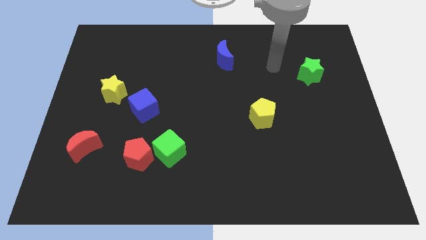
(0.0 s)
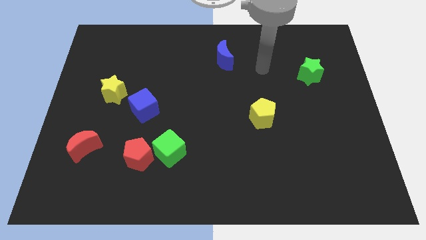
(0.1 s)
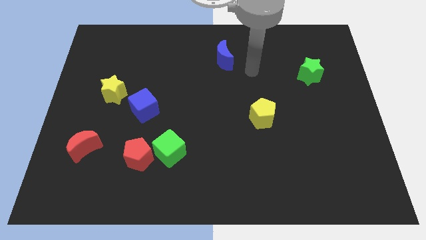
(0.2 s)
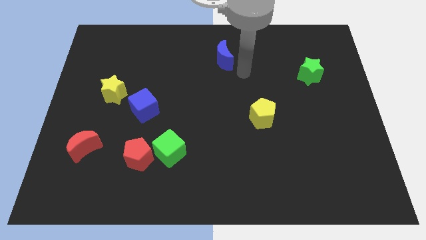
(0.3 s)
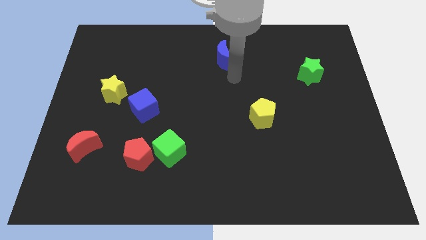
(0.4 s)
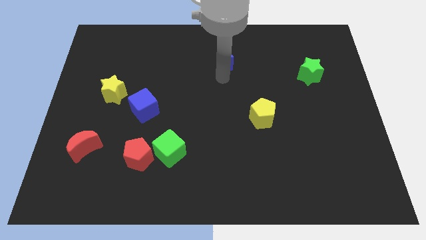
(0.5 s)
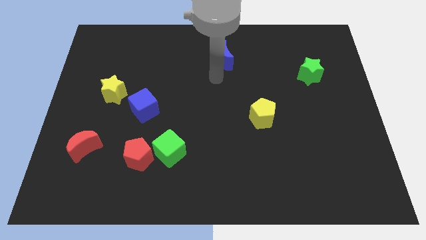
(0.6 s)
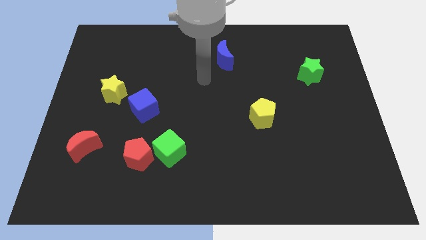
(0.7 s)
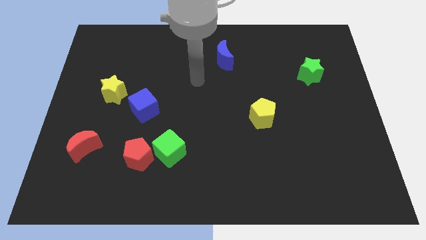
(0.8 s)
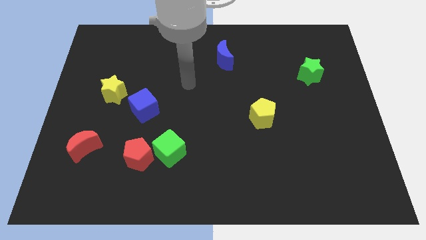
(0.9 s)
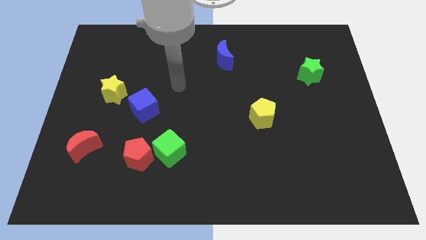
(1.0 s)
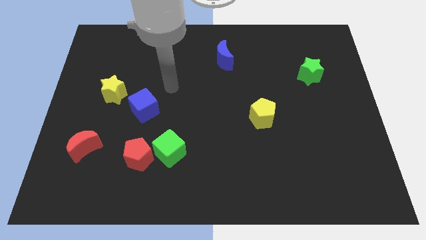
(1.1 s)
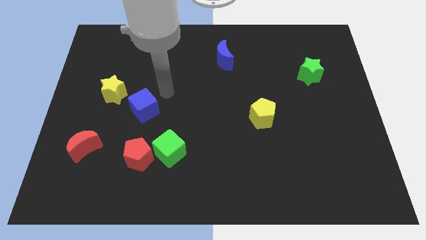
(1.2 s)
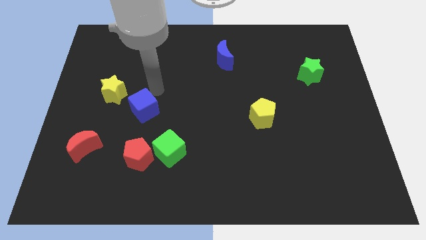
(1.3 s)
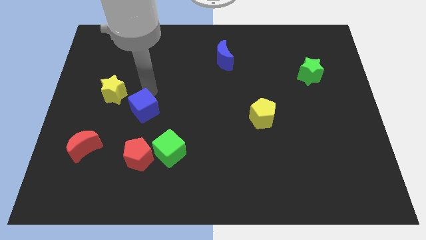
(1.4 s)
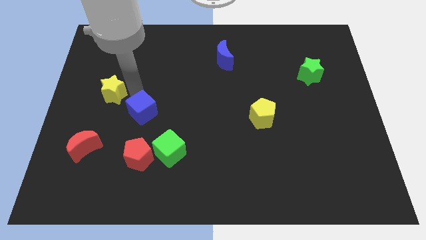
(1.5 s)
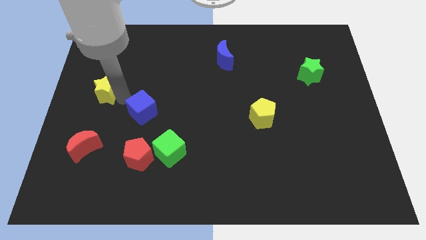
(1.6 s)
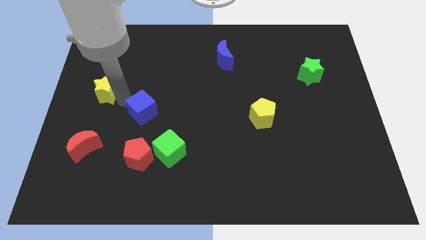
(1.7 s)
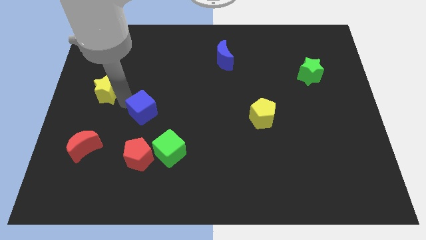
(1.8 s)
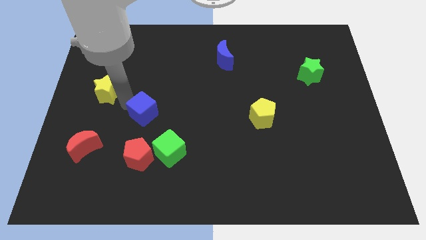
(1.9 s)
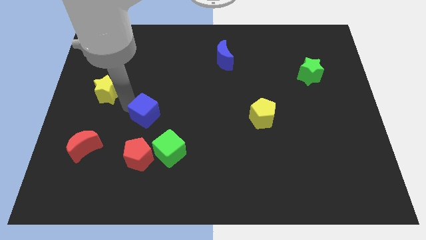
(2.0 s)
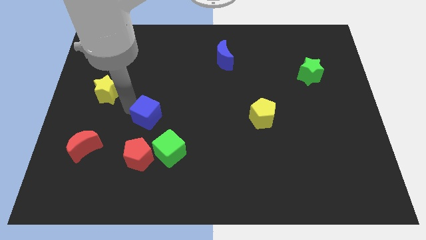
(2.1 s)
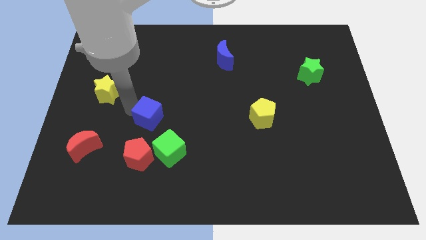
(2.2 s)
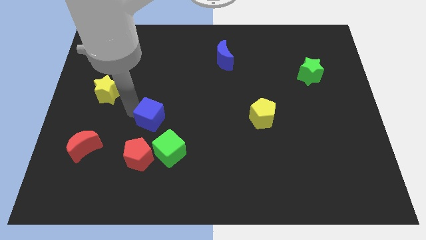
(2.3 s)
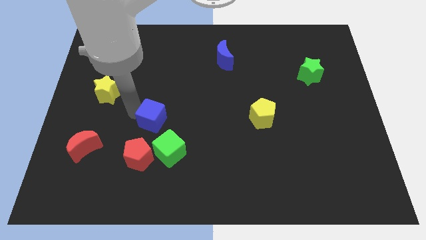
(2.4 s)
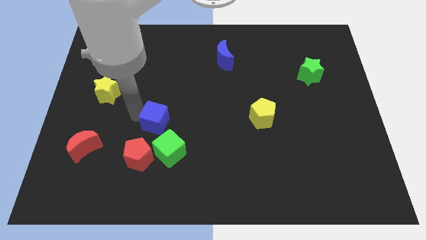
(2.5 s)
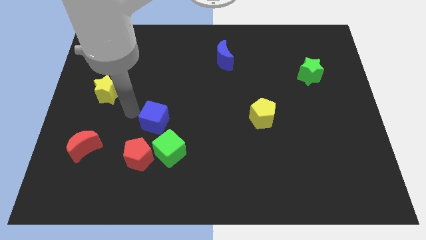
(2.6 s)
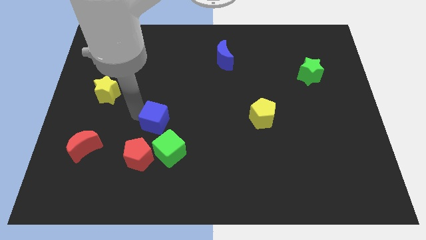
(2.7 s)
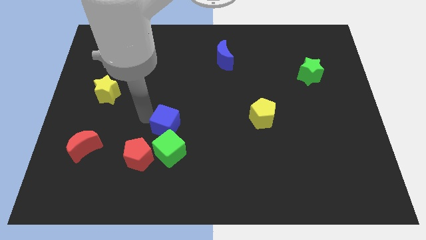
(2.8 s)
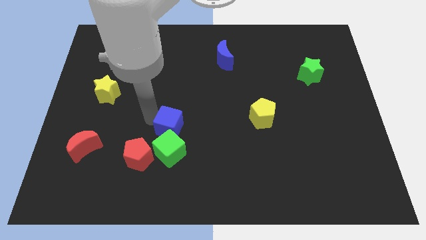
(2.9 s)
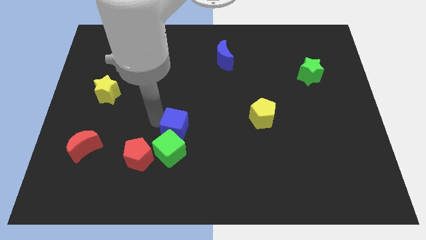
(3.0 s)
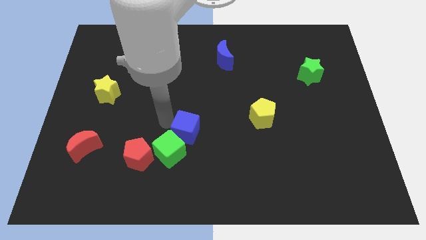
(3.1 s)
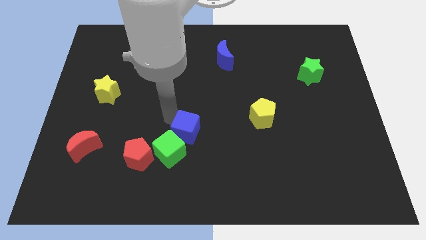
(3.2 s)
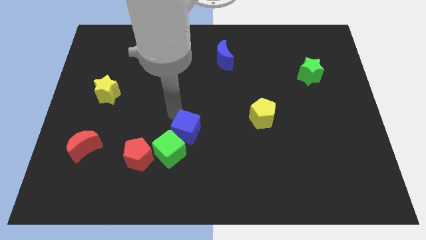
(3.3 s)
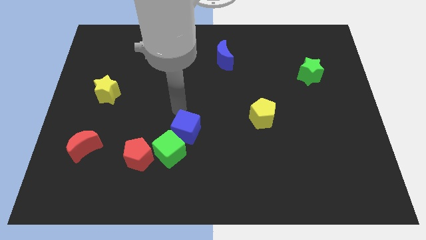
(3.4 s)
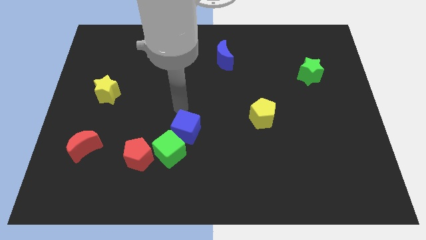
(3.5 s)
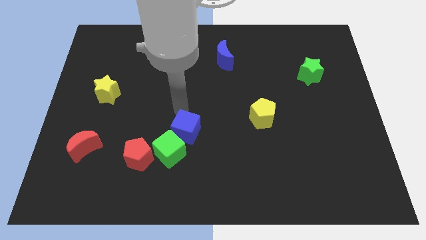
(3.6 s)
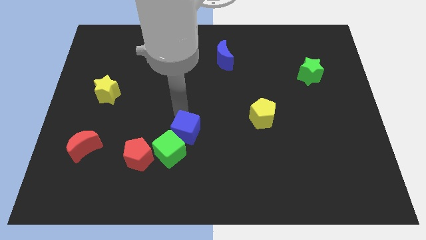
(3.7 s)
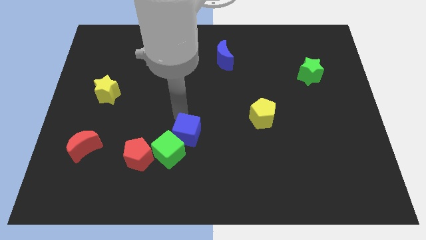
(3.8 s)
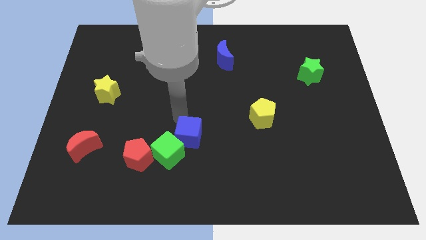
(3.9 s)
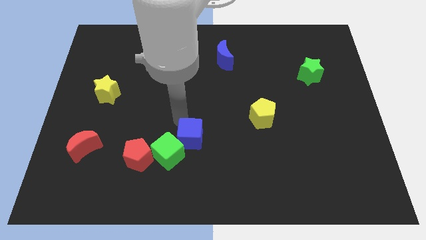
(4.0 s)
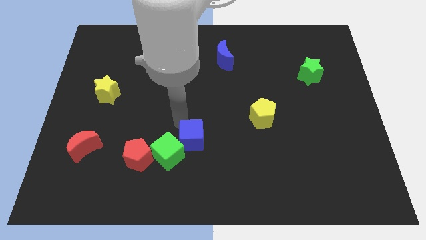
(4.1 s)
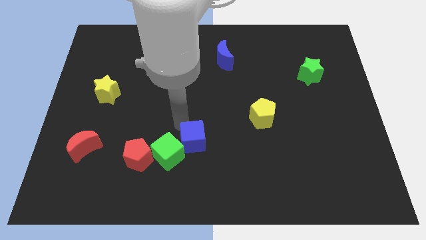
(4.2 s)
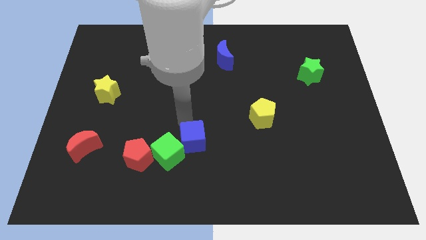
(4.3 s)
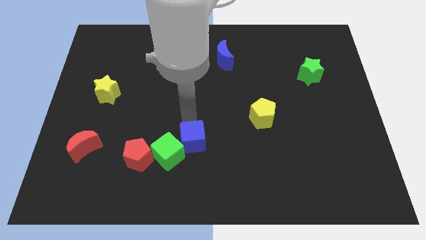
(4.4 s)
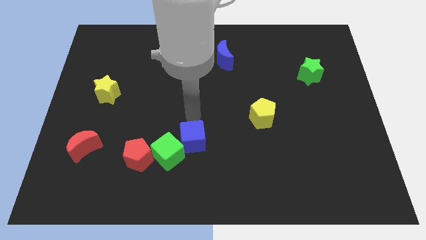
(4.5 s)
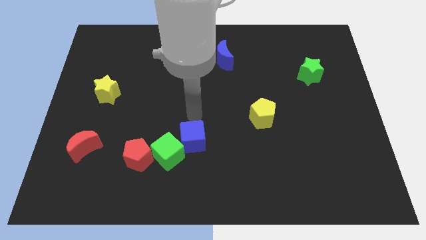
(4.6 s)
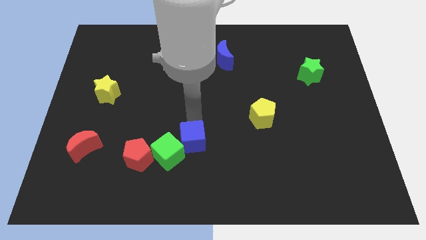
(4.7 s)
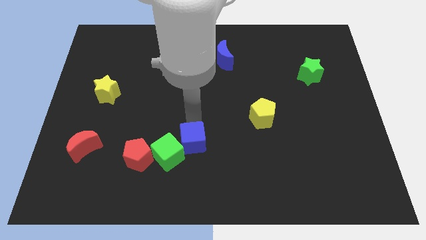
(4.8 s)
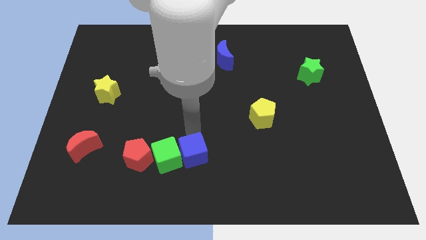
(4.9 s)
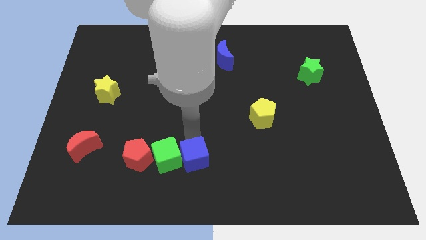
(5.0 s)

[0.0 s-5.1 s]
slide the blue cube to the bottom

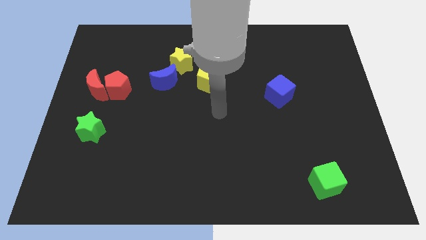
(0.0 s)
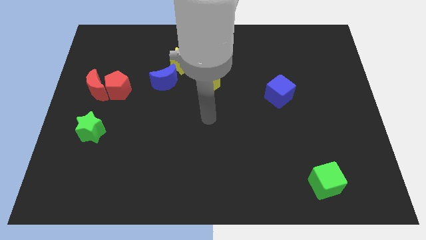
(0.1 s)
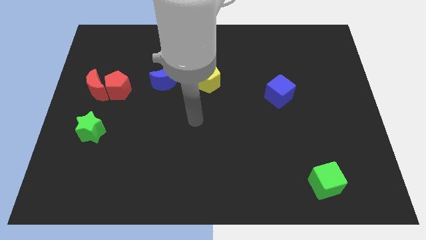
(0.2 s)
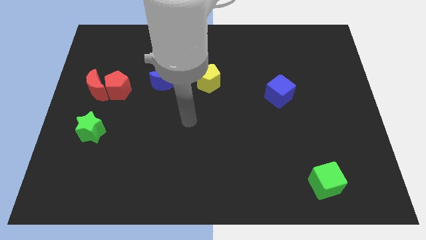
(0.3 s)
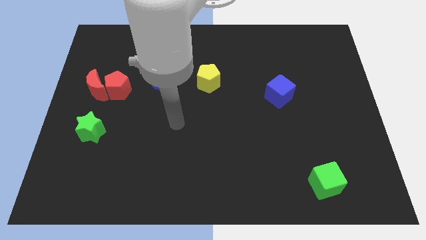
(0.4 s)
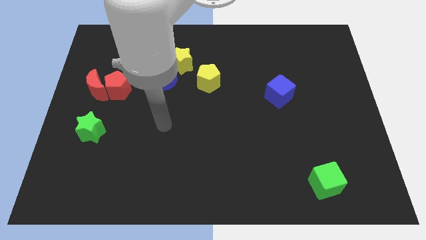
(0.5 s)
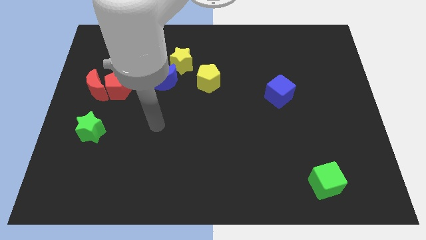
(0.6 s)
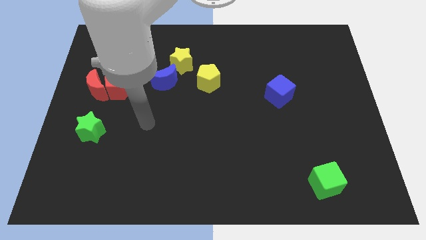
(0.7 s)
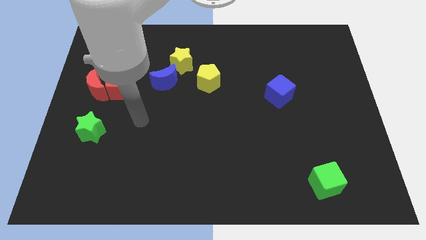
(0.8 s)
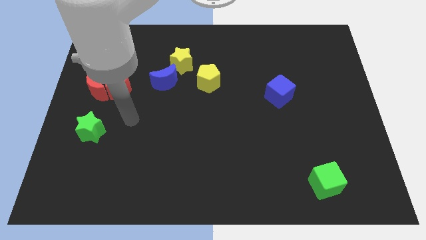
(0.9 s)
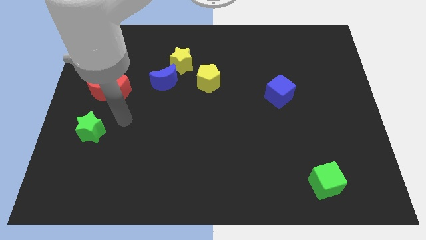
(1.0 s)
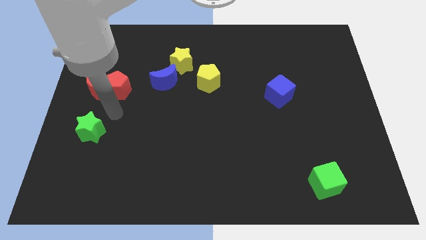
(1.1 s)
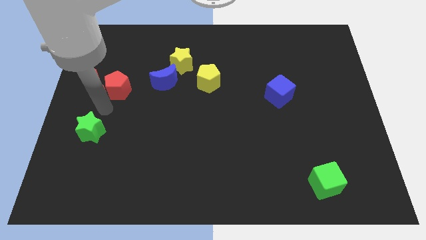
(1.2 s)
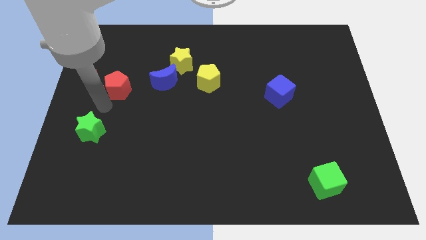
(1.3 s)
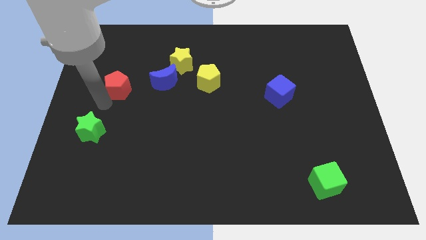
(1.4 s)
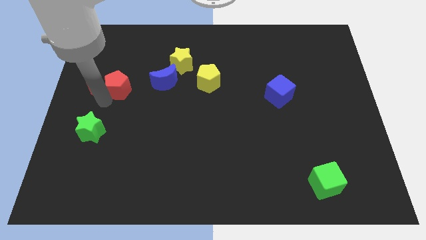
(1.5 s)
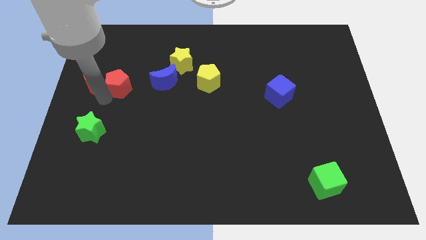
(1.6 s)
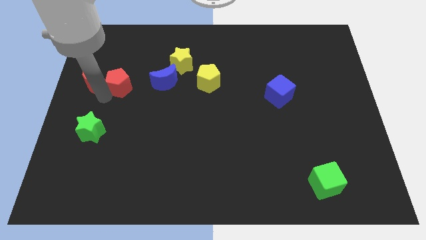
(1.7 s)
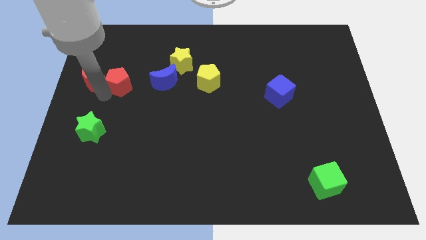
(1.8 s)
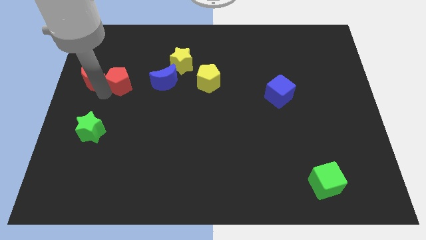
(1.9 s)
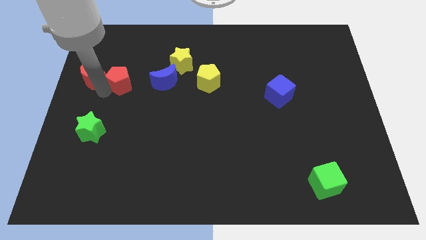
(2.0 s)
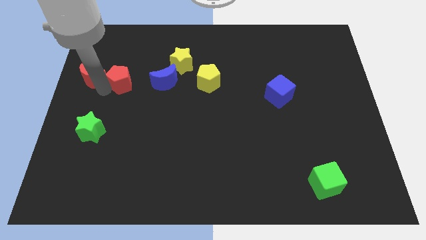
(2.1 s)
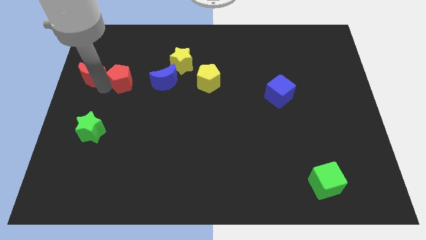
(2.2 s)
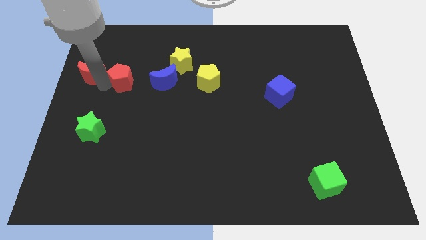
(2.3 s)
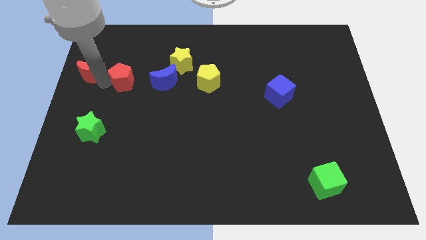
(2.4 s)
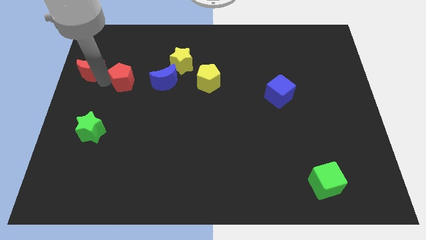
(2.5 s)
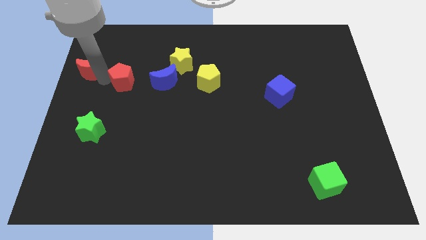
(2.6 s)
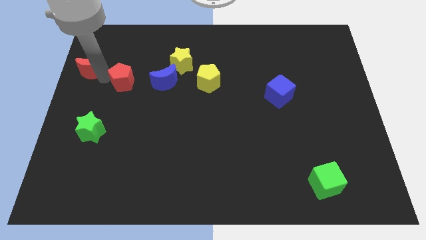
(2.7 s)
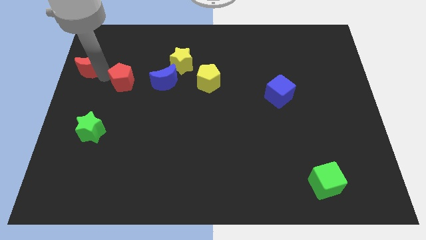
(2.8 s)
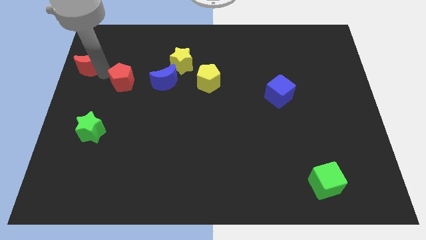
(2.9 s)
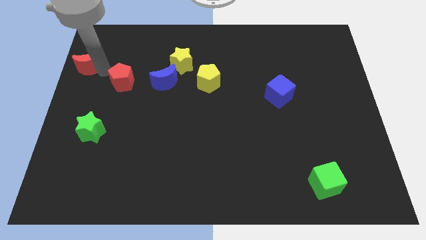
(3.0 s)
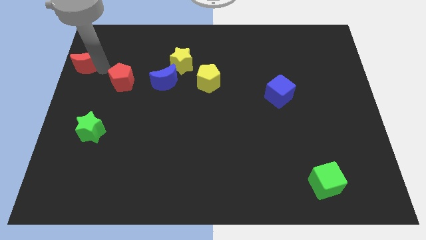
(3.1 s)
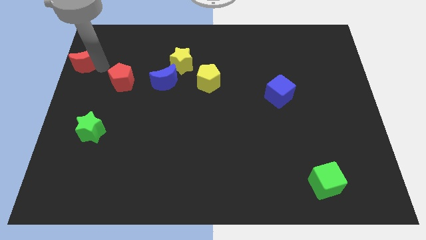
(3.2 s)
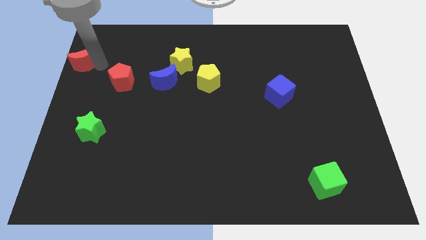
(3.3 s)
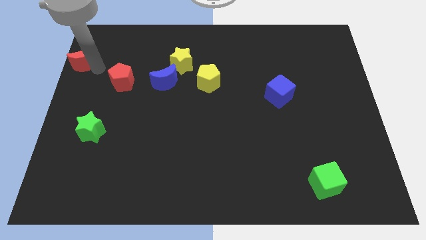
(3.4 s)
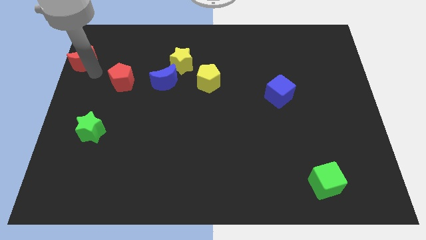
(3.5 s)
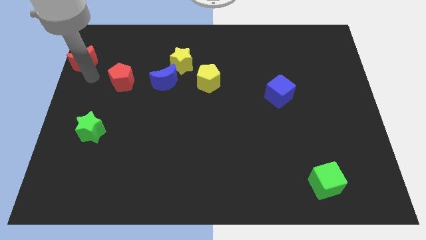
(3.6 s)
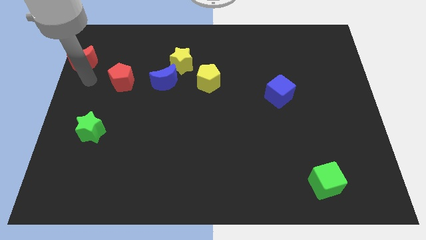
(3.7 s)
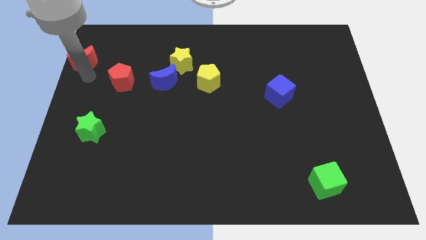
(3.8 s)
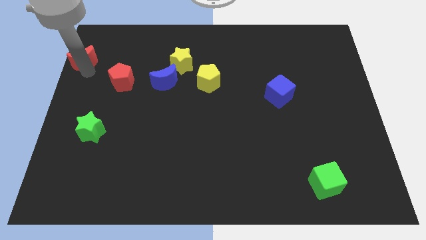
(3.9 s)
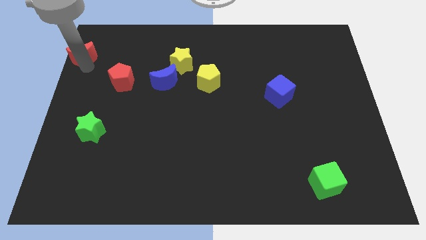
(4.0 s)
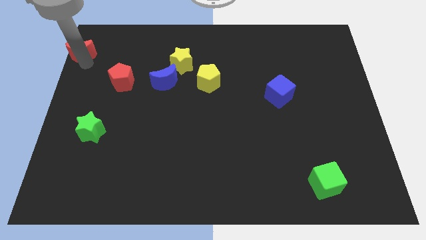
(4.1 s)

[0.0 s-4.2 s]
put the red moon to the upper left corner
